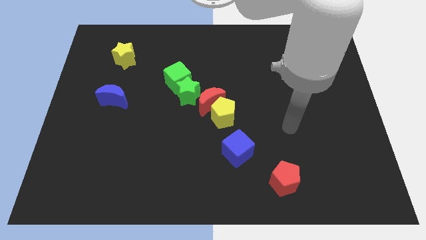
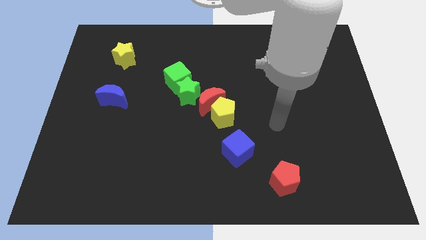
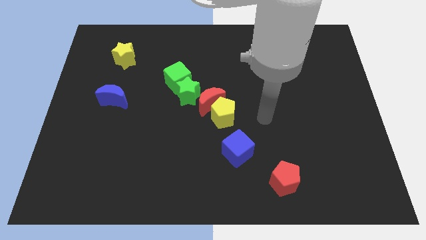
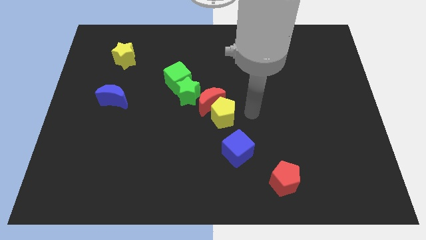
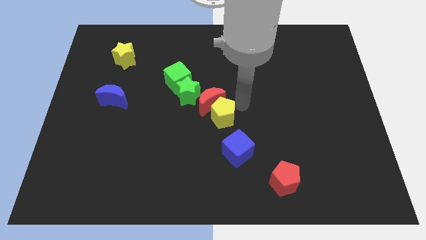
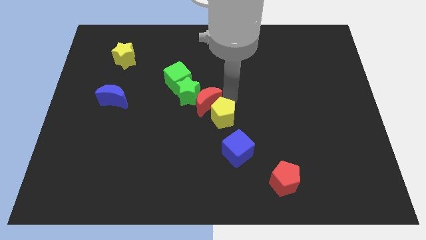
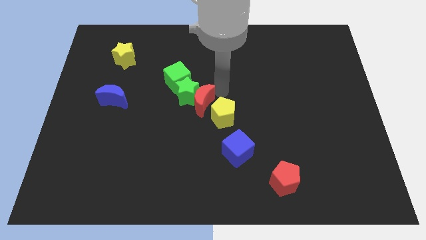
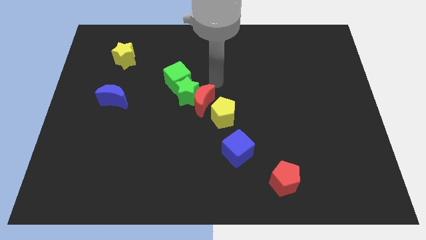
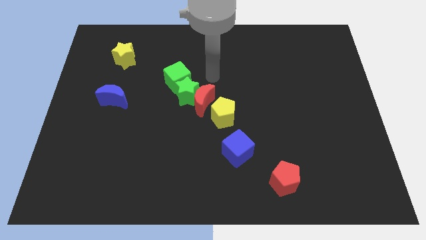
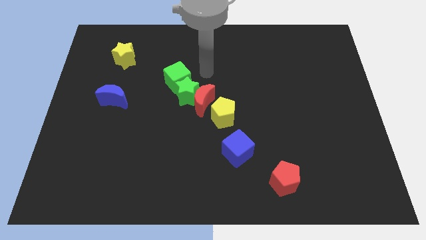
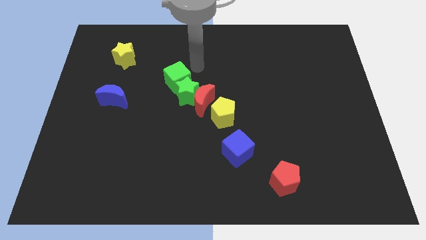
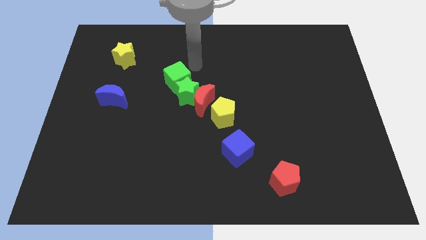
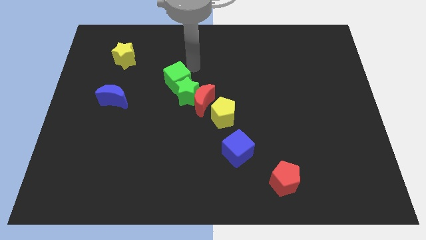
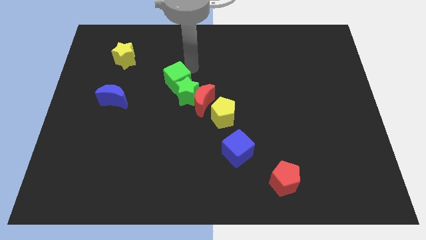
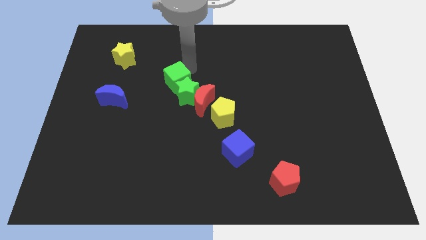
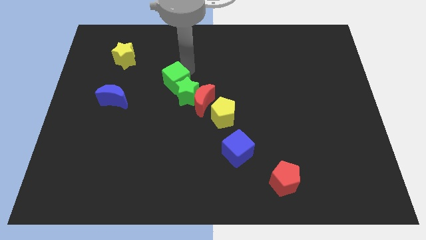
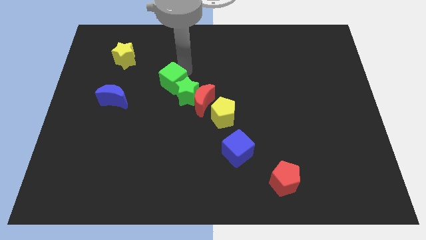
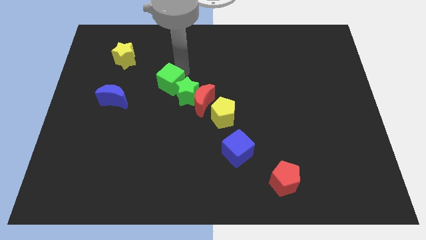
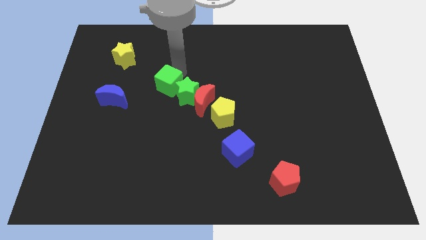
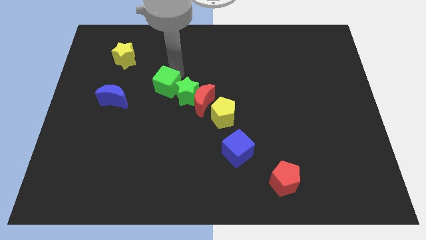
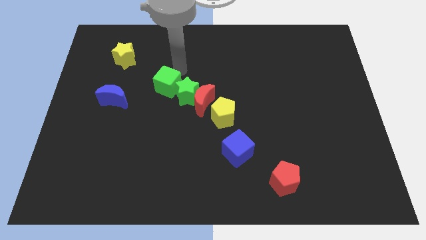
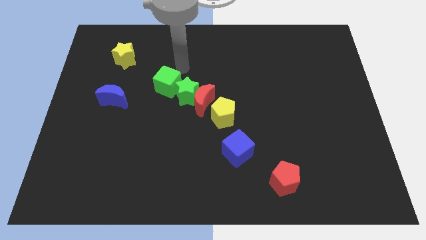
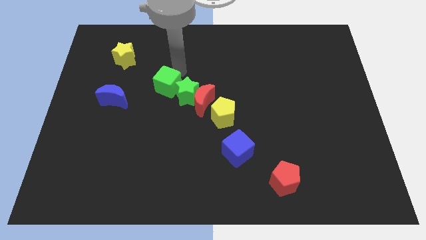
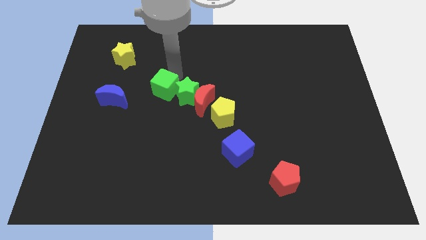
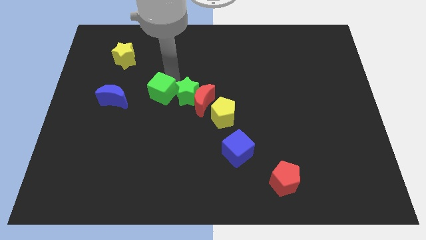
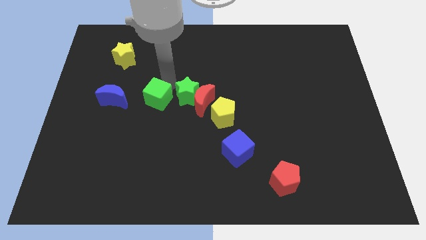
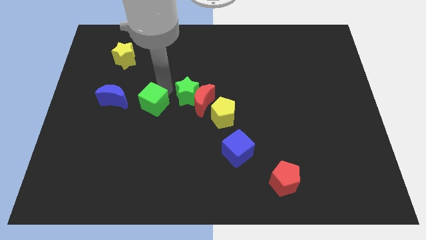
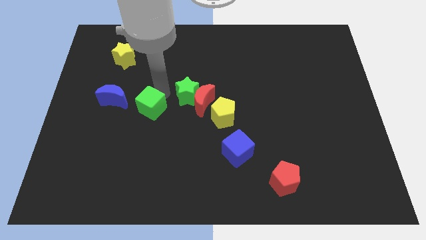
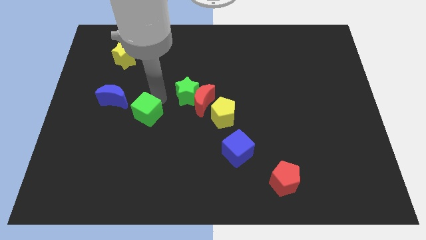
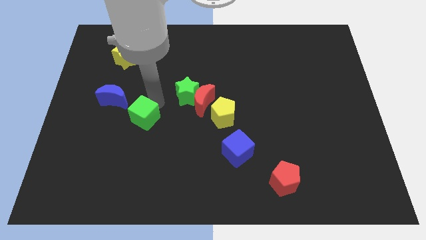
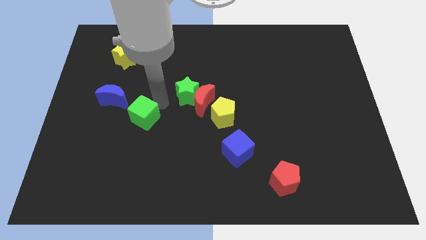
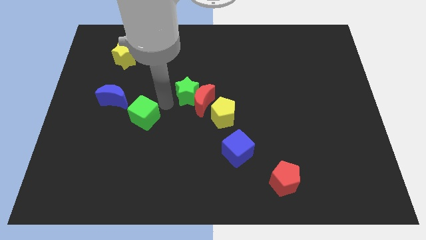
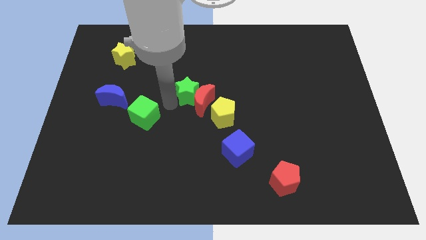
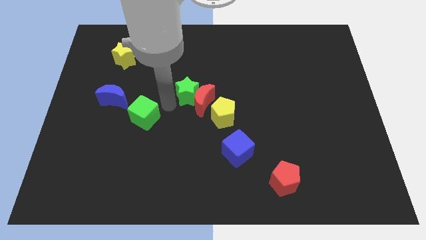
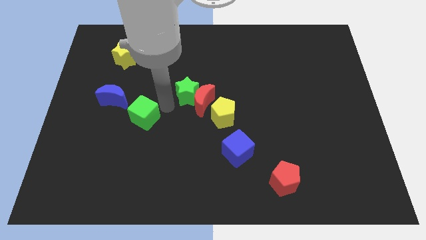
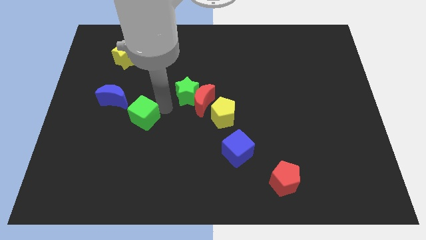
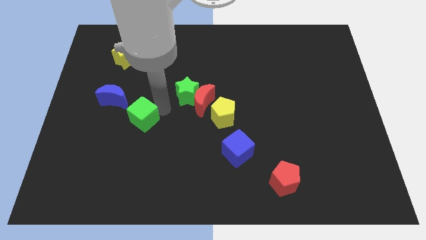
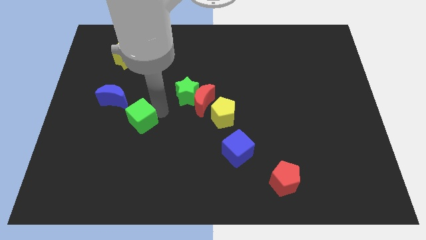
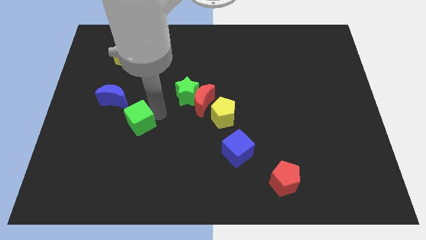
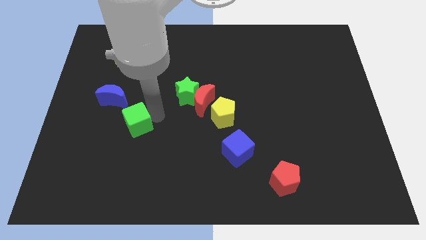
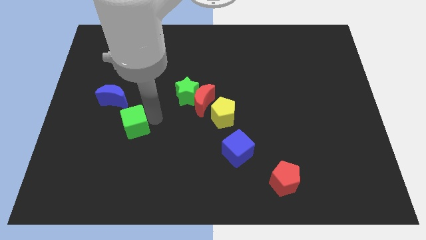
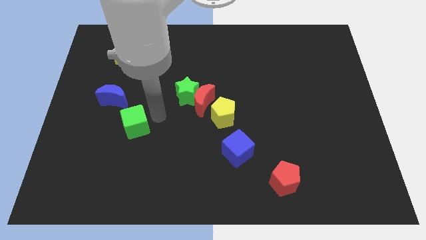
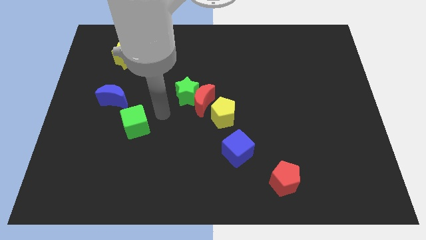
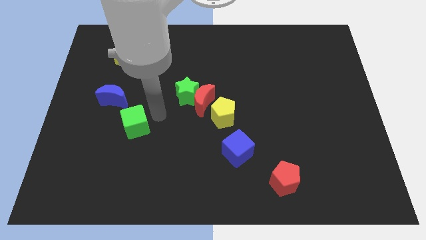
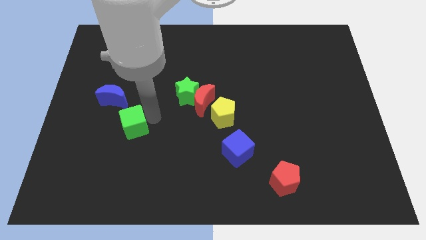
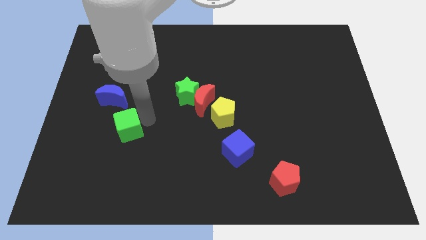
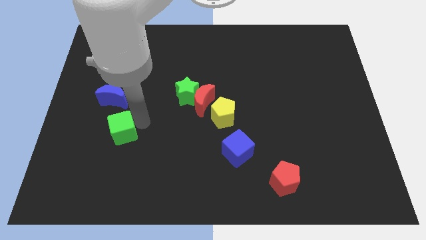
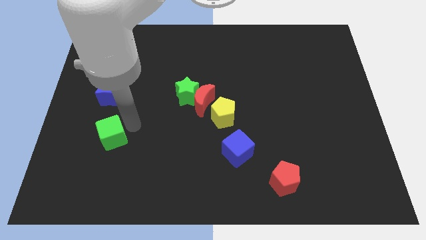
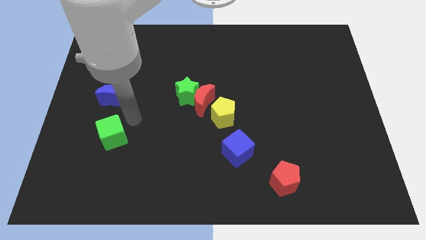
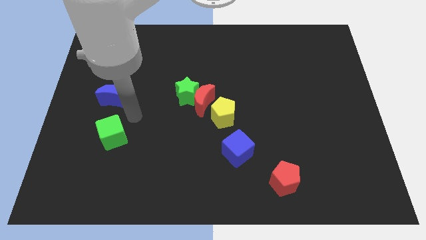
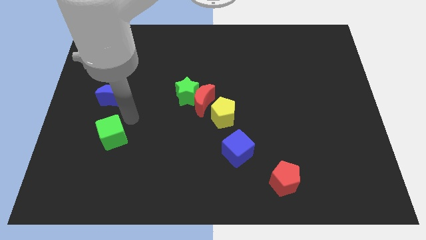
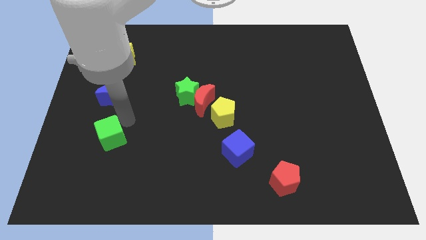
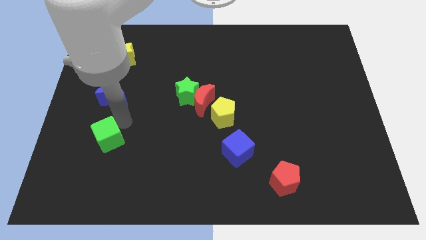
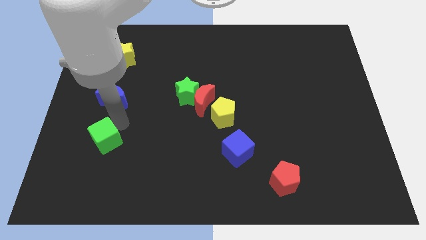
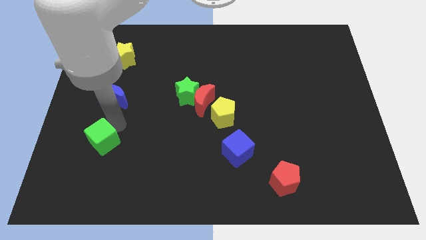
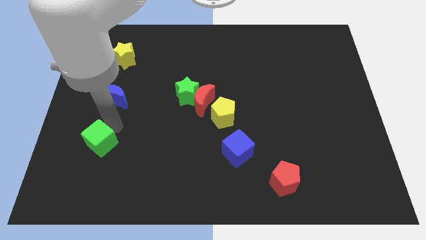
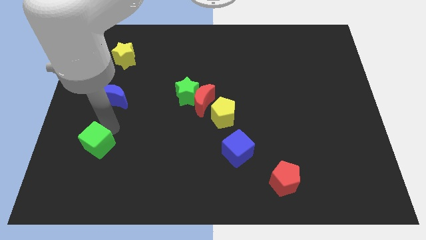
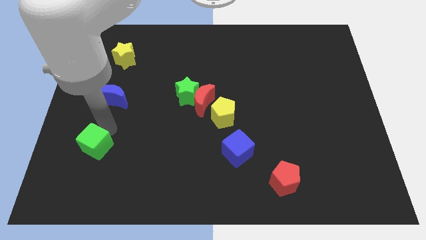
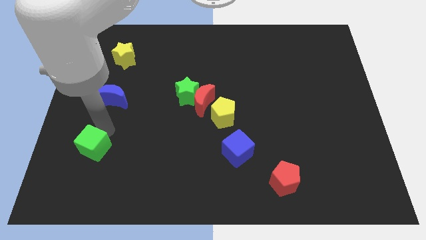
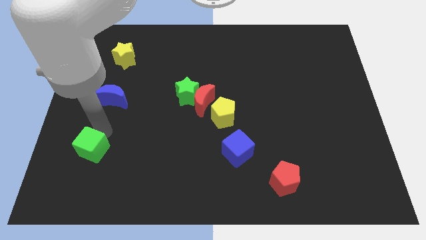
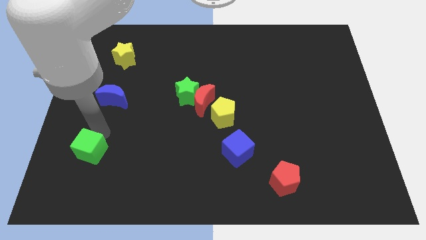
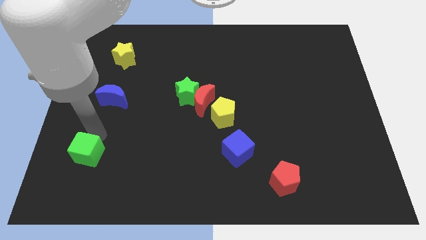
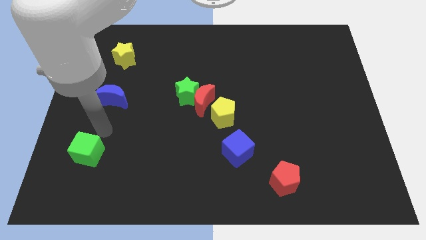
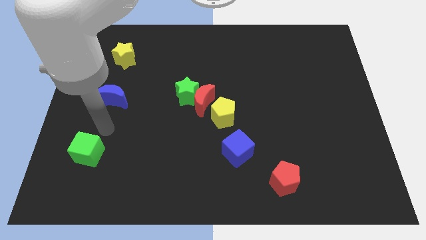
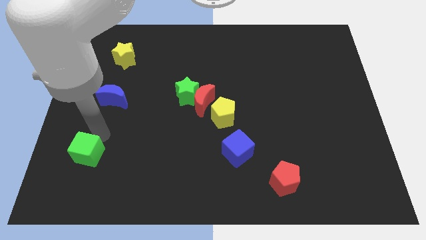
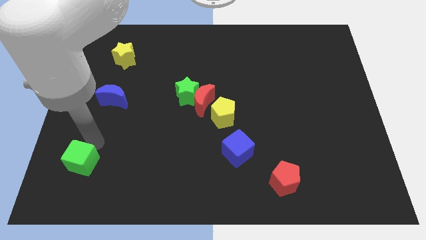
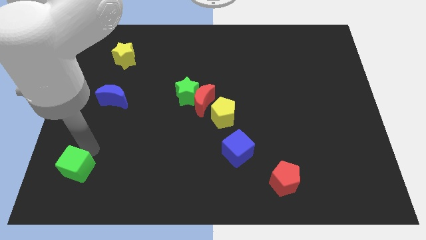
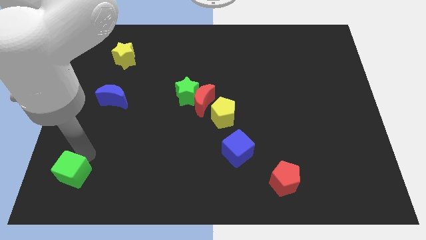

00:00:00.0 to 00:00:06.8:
put the green cube to the bottom left of the board
